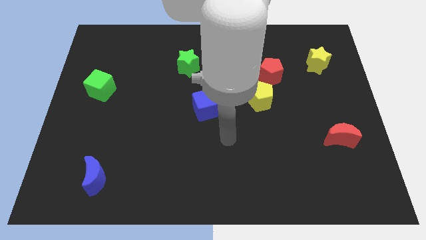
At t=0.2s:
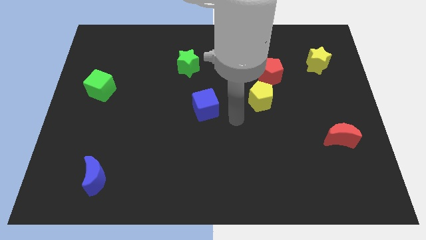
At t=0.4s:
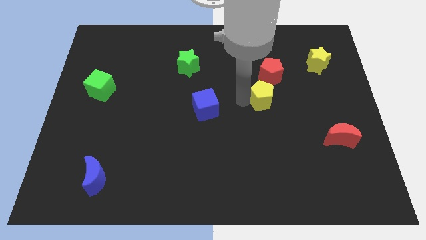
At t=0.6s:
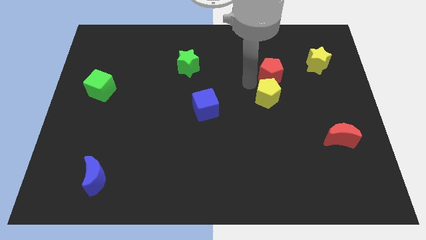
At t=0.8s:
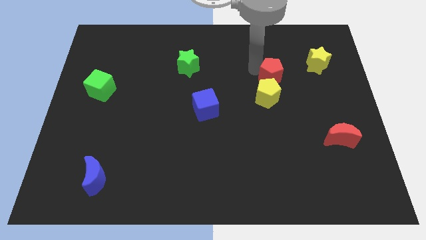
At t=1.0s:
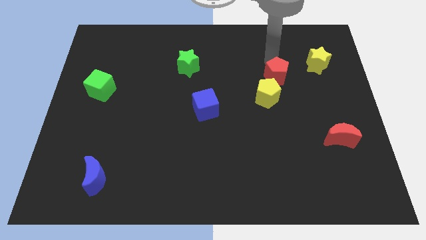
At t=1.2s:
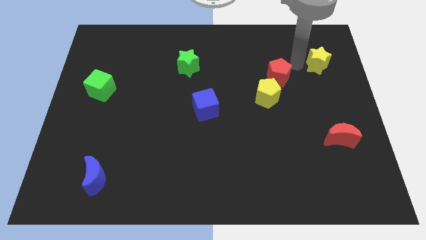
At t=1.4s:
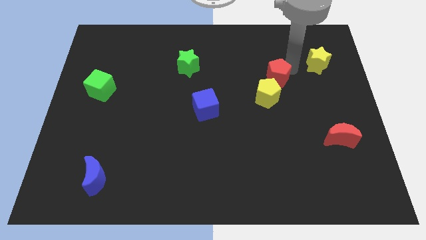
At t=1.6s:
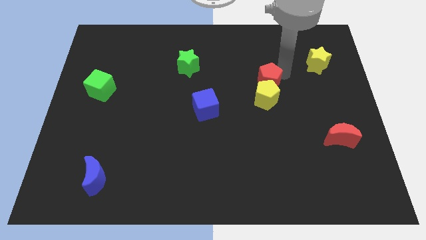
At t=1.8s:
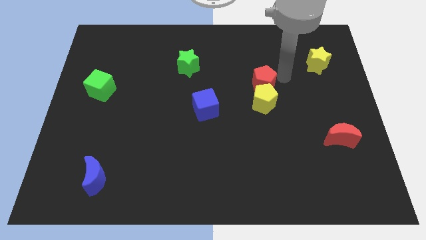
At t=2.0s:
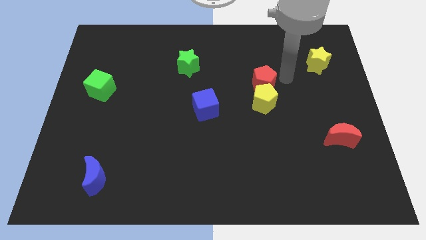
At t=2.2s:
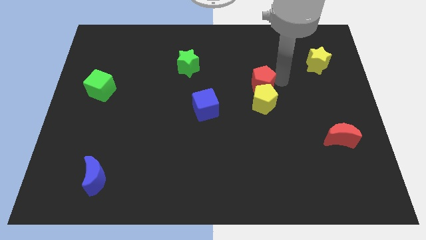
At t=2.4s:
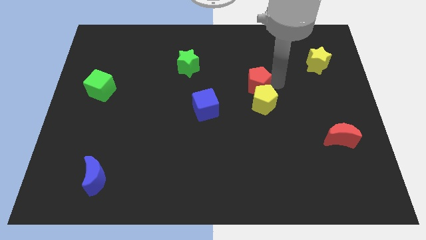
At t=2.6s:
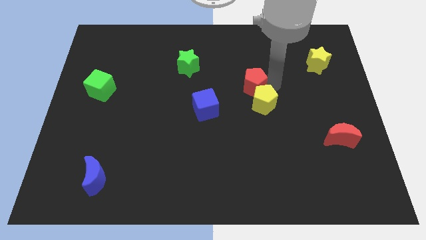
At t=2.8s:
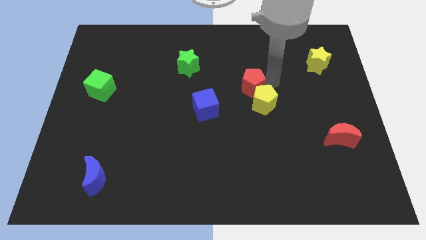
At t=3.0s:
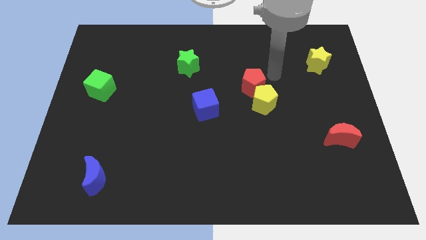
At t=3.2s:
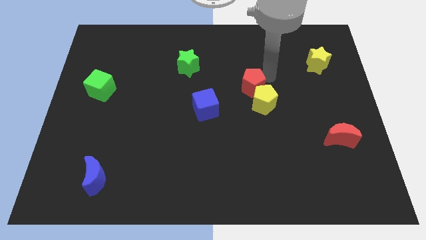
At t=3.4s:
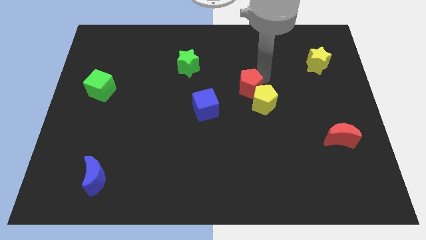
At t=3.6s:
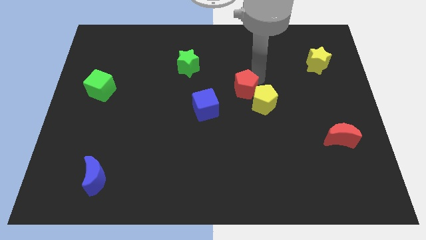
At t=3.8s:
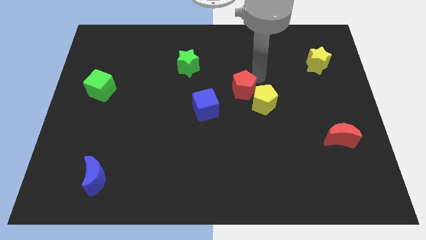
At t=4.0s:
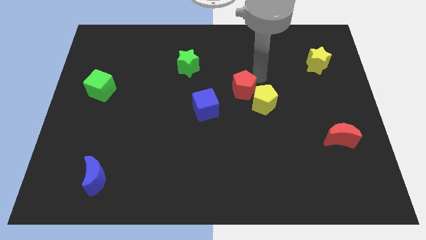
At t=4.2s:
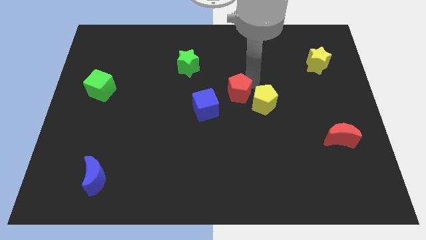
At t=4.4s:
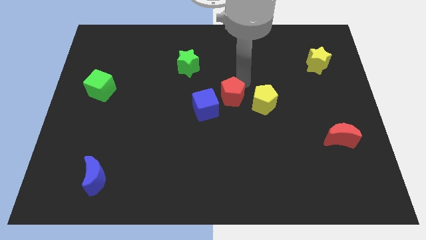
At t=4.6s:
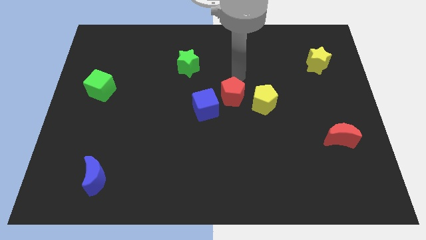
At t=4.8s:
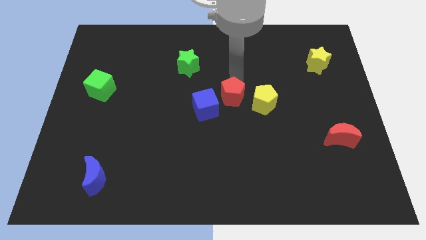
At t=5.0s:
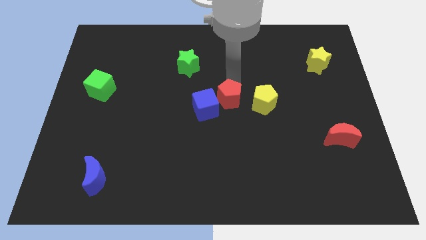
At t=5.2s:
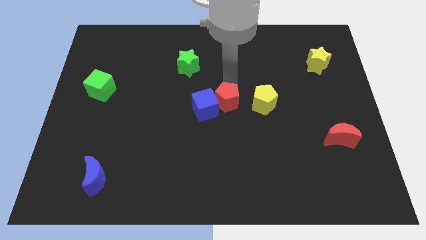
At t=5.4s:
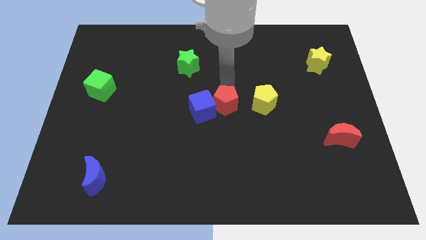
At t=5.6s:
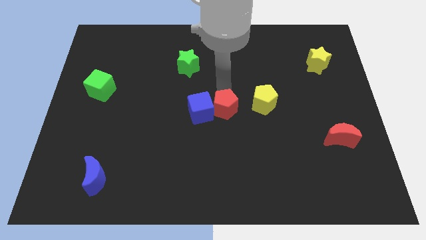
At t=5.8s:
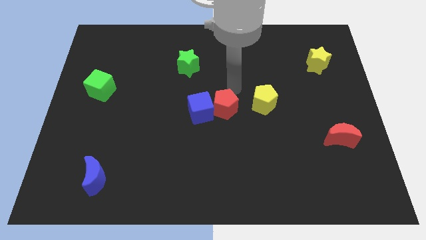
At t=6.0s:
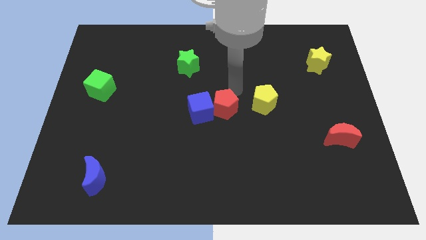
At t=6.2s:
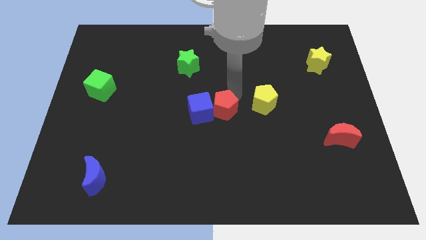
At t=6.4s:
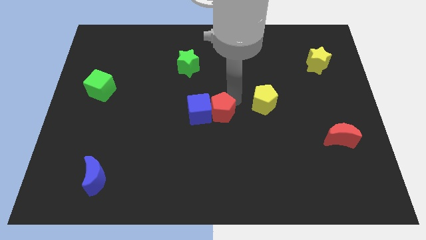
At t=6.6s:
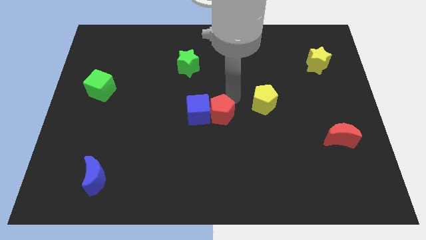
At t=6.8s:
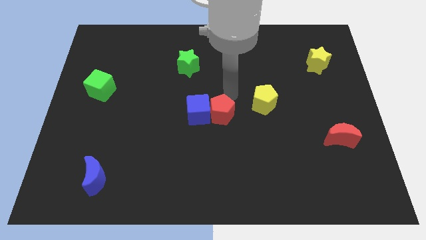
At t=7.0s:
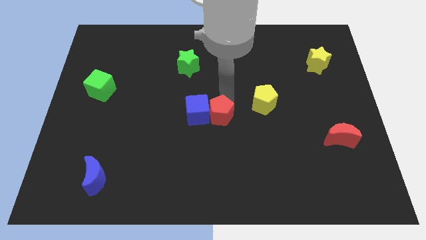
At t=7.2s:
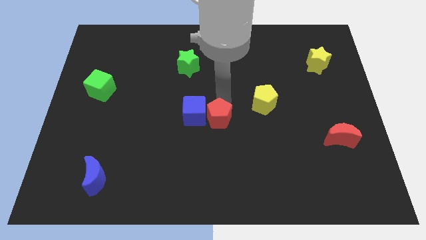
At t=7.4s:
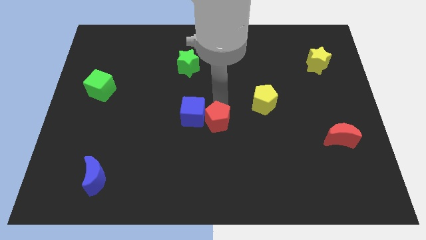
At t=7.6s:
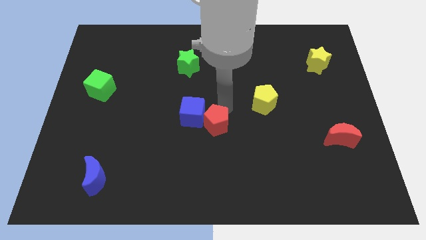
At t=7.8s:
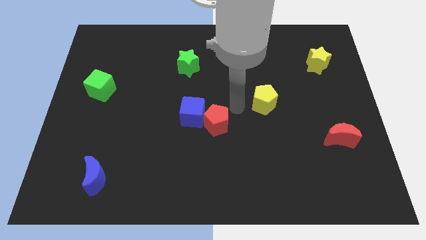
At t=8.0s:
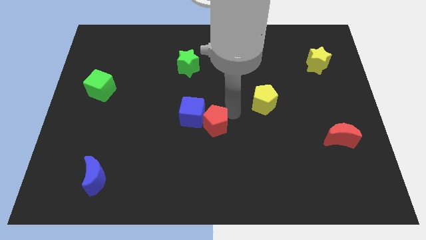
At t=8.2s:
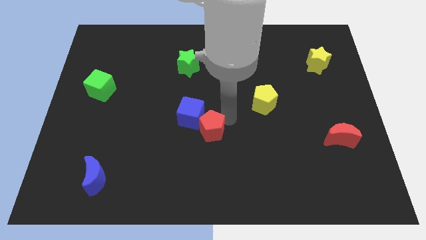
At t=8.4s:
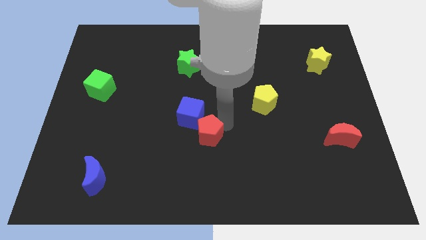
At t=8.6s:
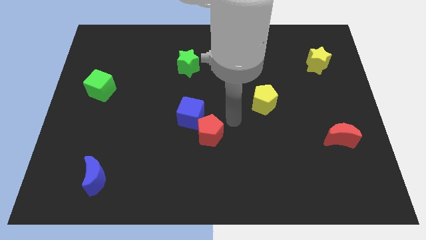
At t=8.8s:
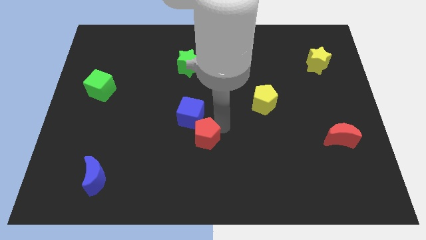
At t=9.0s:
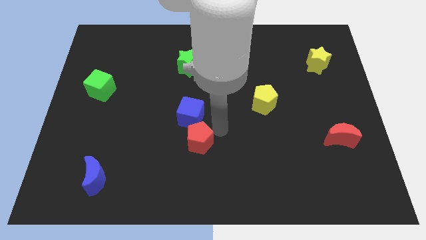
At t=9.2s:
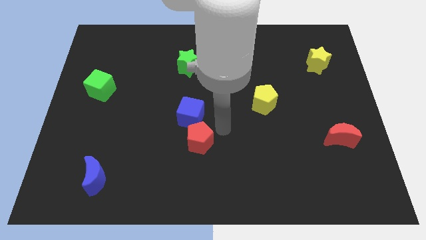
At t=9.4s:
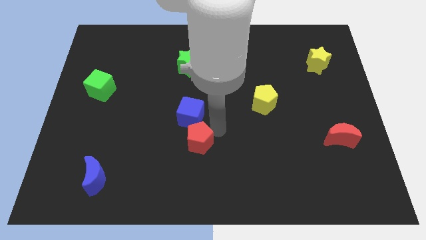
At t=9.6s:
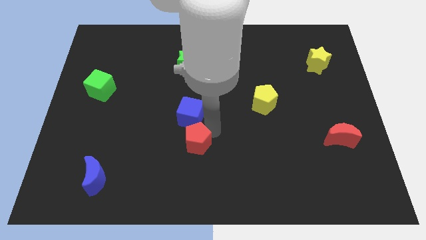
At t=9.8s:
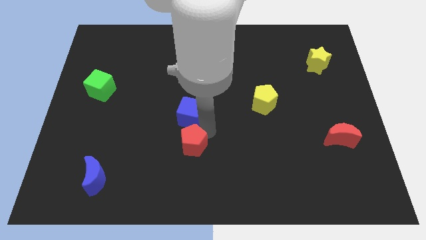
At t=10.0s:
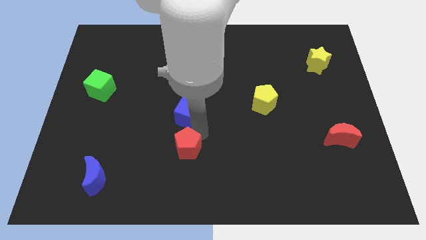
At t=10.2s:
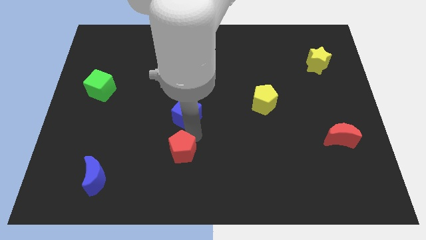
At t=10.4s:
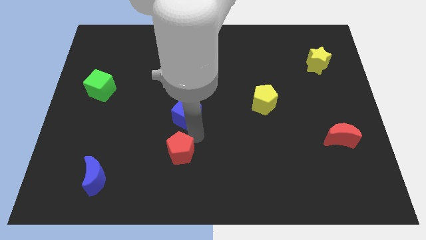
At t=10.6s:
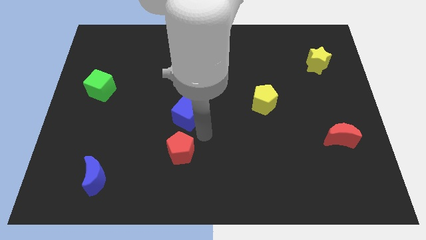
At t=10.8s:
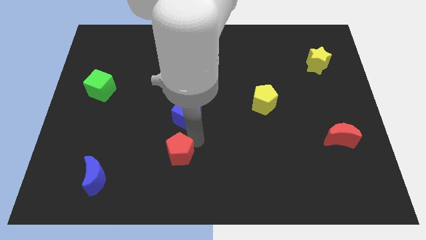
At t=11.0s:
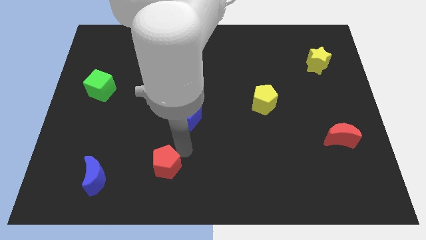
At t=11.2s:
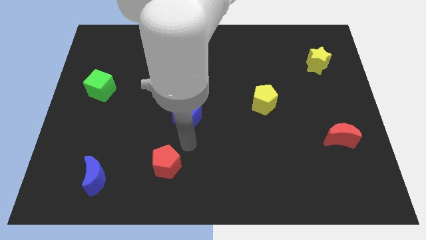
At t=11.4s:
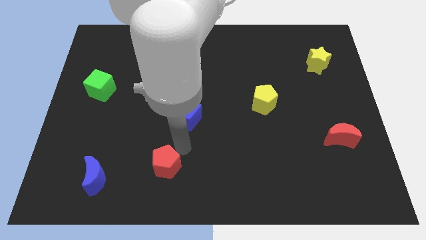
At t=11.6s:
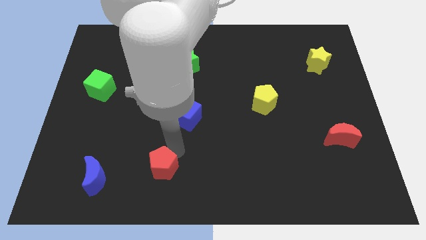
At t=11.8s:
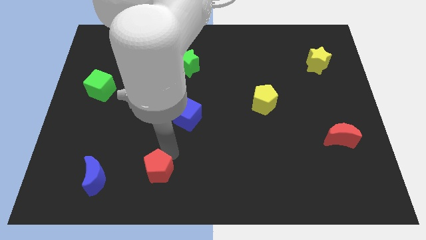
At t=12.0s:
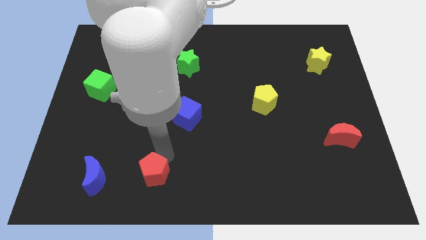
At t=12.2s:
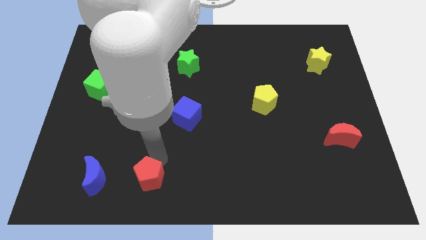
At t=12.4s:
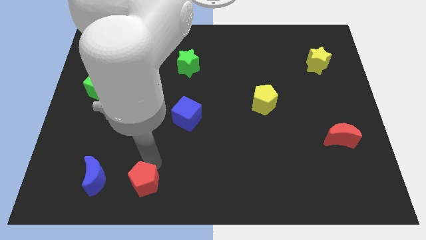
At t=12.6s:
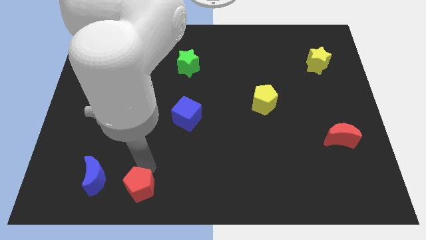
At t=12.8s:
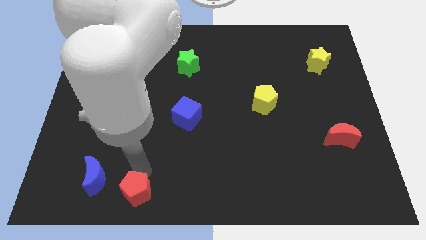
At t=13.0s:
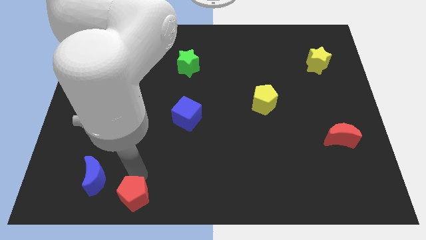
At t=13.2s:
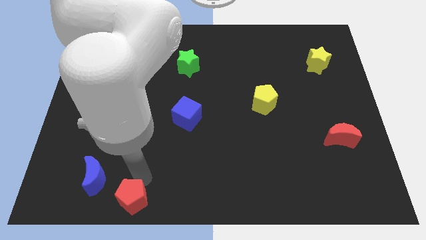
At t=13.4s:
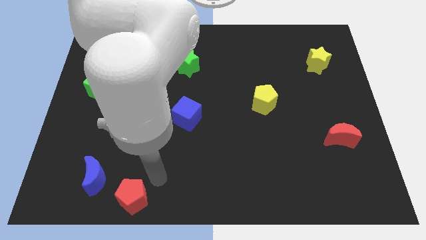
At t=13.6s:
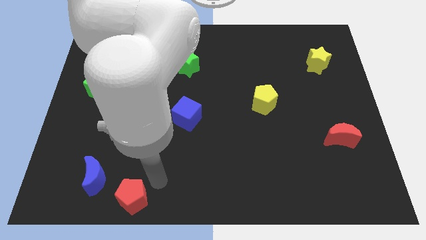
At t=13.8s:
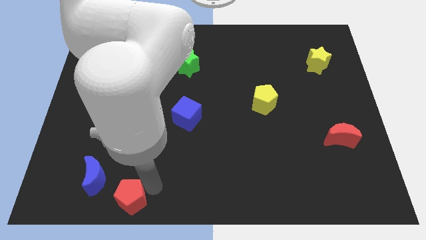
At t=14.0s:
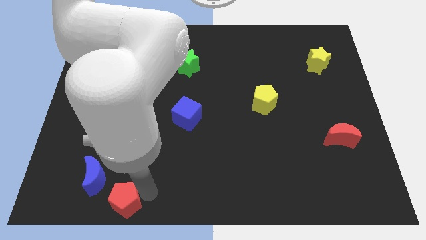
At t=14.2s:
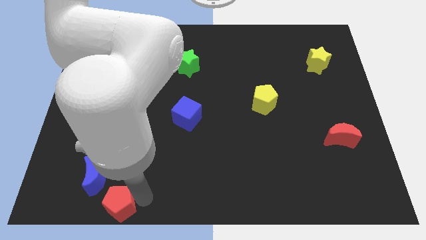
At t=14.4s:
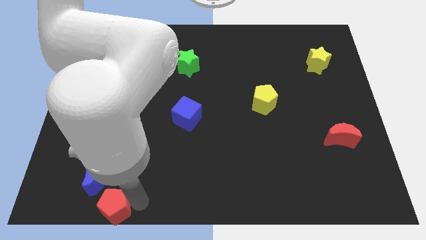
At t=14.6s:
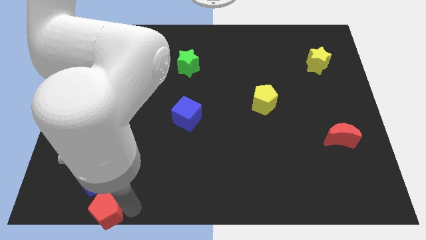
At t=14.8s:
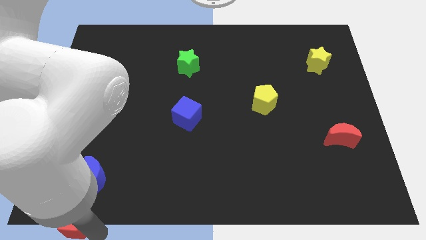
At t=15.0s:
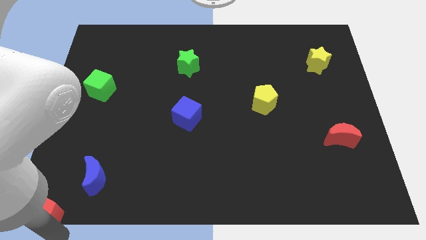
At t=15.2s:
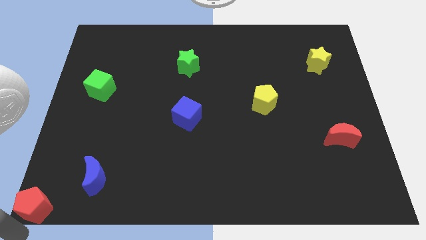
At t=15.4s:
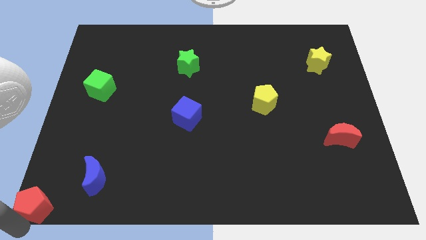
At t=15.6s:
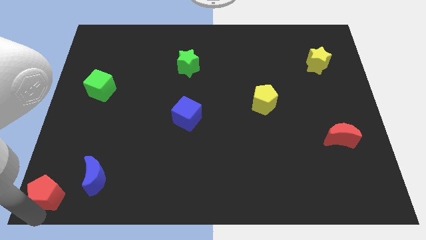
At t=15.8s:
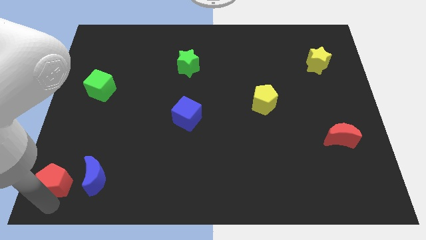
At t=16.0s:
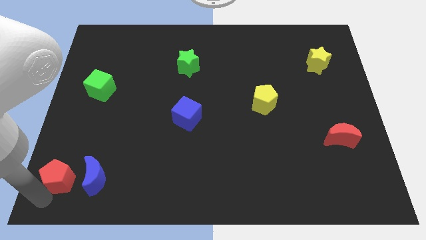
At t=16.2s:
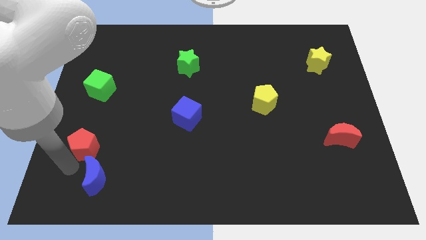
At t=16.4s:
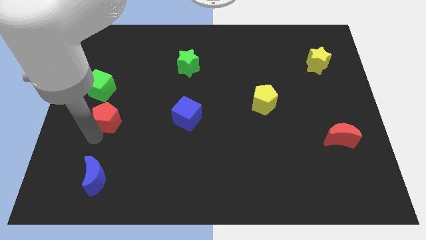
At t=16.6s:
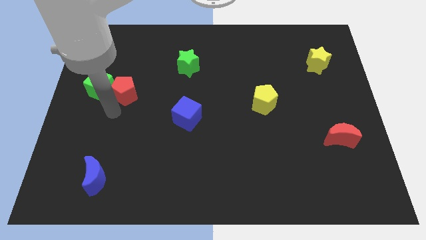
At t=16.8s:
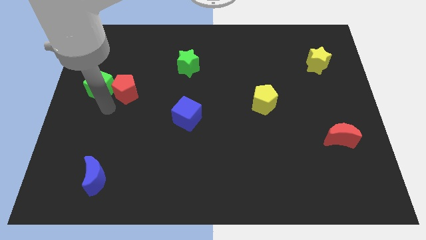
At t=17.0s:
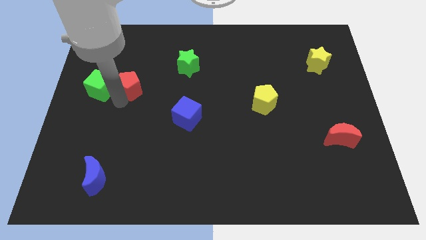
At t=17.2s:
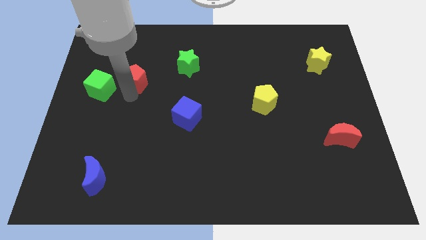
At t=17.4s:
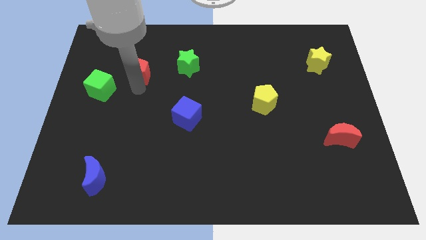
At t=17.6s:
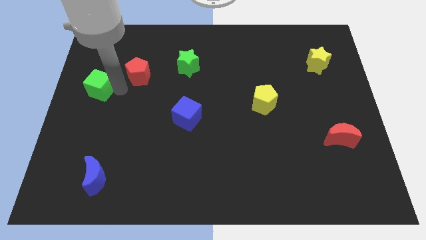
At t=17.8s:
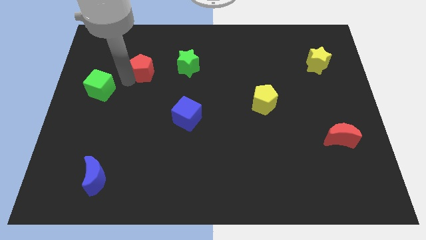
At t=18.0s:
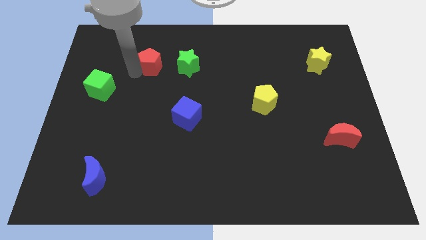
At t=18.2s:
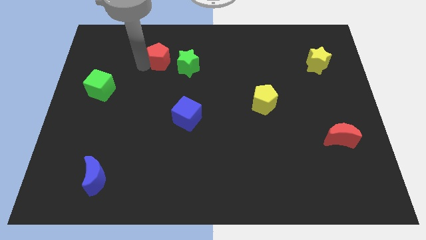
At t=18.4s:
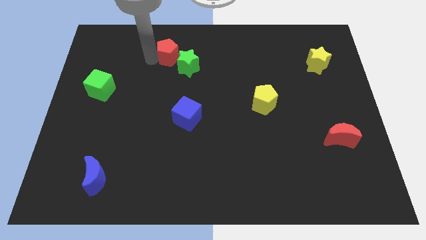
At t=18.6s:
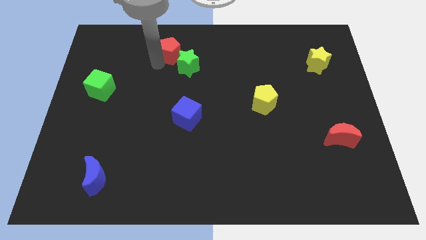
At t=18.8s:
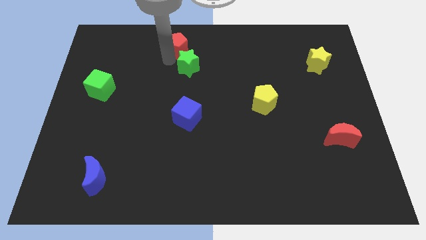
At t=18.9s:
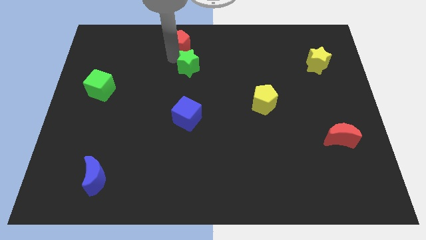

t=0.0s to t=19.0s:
put the red pentagon to the top side
